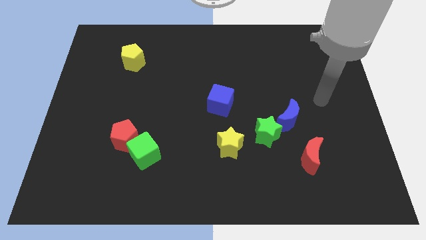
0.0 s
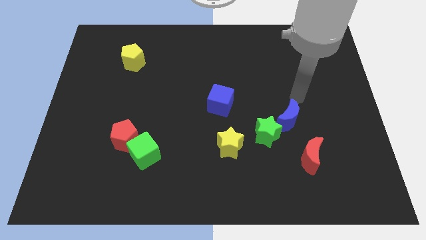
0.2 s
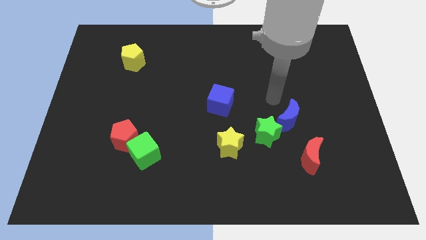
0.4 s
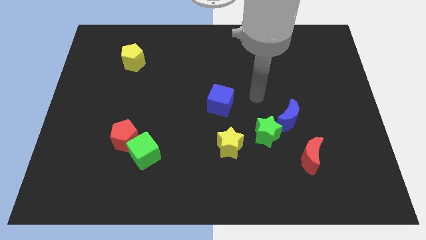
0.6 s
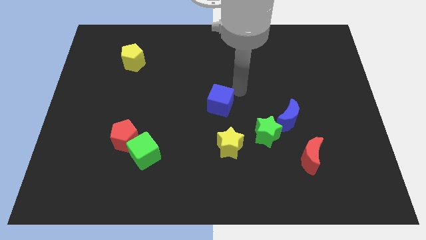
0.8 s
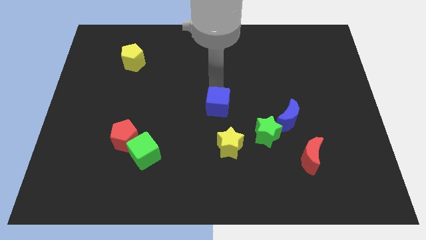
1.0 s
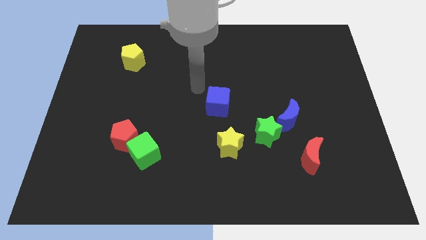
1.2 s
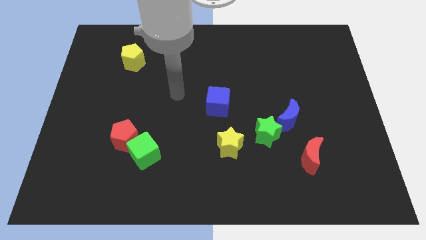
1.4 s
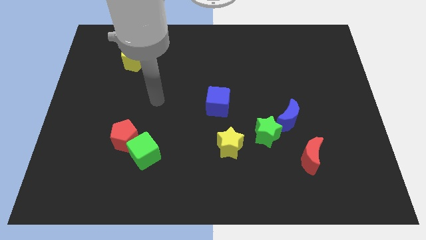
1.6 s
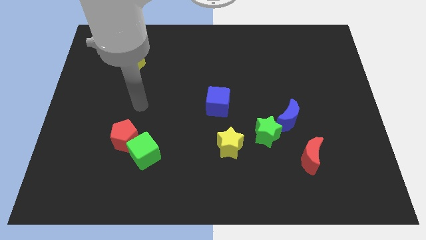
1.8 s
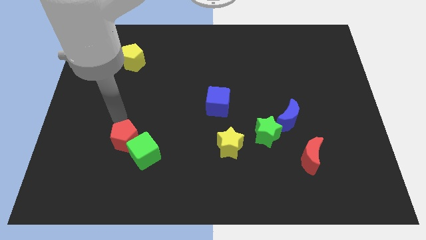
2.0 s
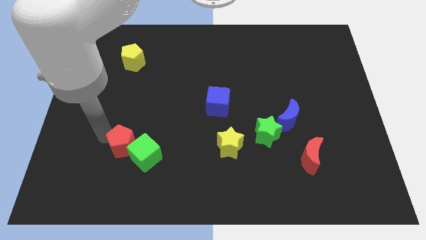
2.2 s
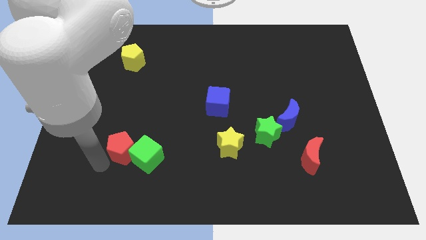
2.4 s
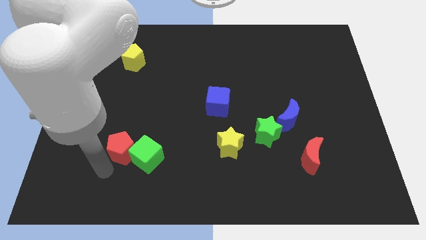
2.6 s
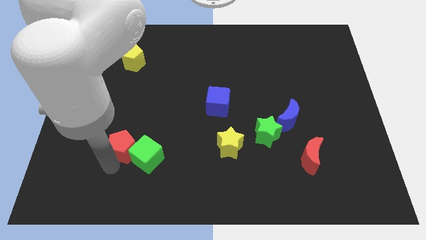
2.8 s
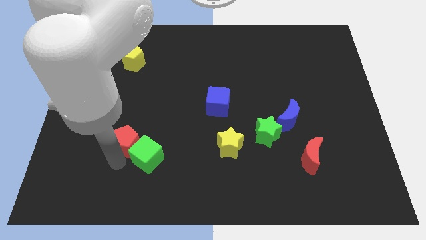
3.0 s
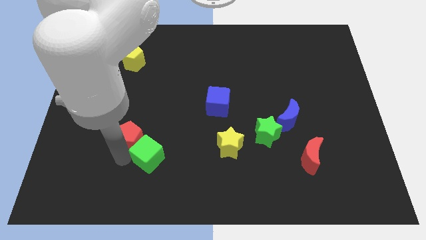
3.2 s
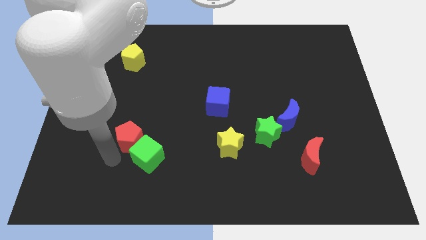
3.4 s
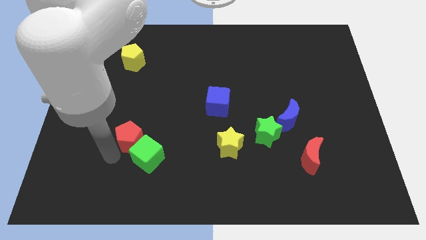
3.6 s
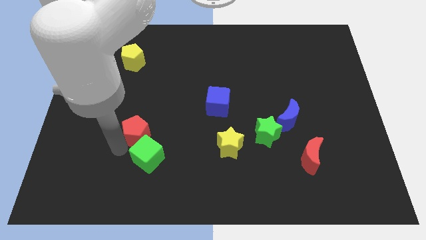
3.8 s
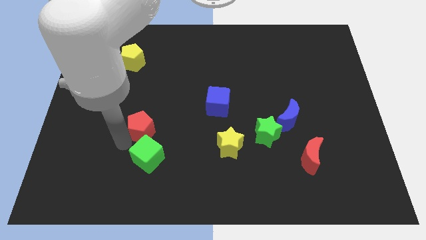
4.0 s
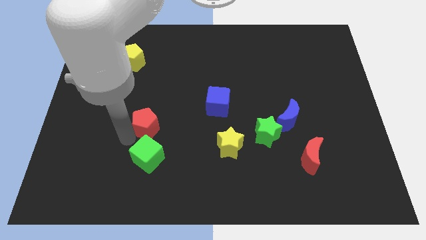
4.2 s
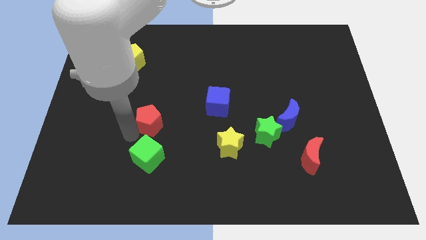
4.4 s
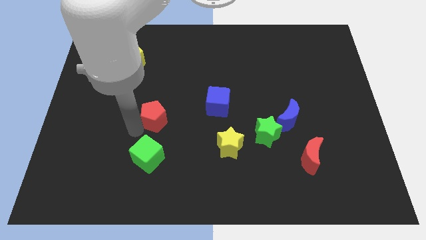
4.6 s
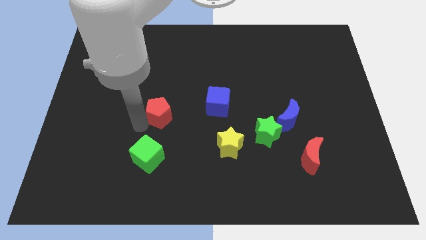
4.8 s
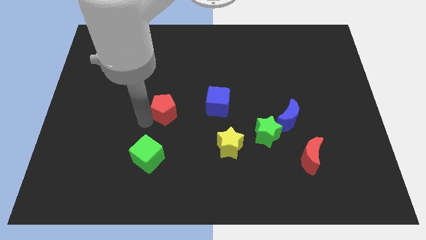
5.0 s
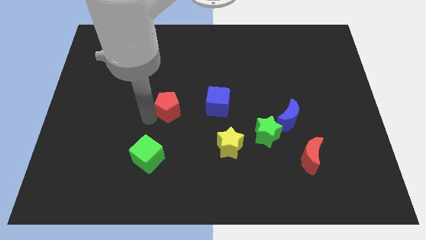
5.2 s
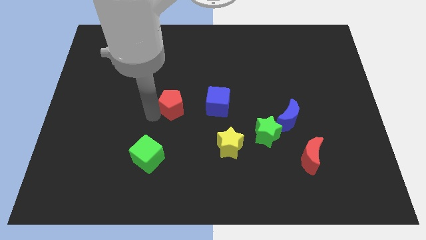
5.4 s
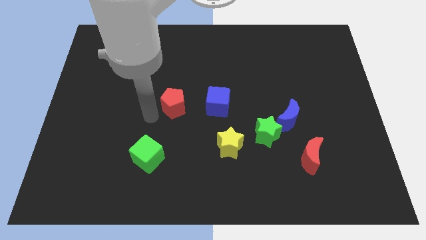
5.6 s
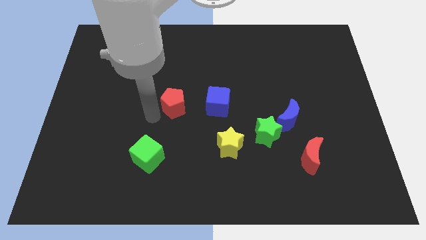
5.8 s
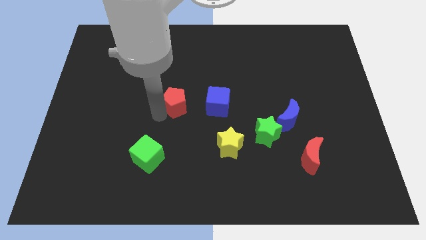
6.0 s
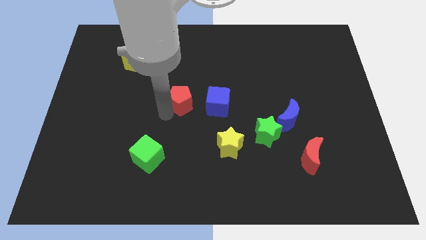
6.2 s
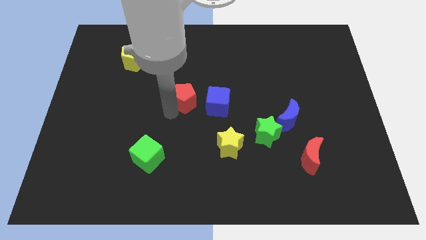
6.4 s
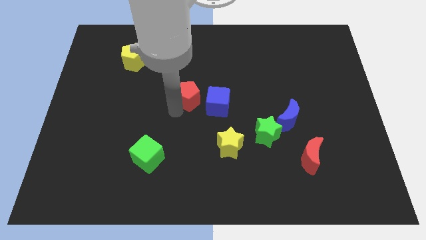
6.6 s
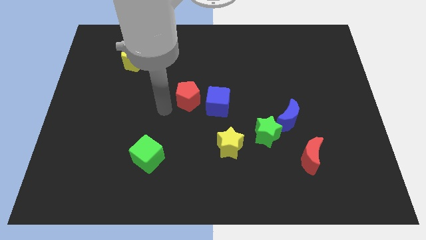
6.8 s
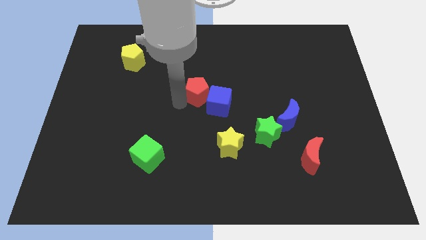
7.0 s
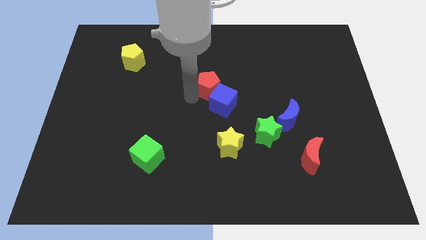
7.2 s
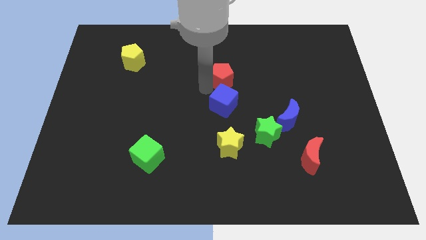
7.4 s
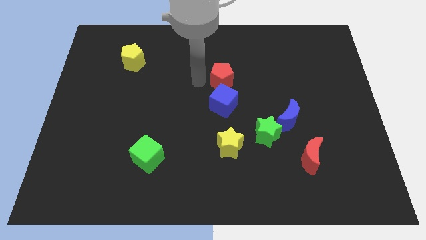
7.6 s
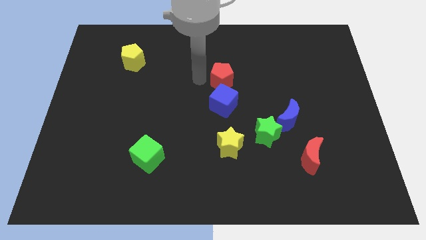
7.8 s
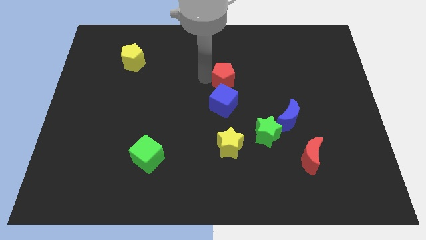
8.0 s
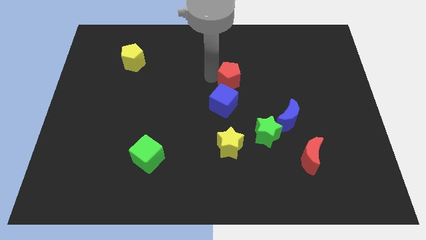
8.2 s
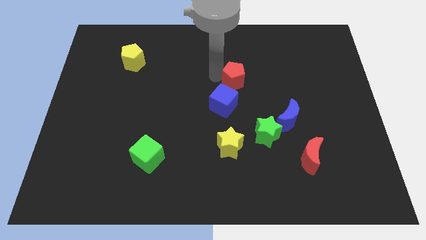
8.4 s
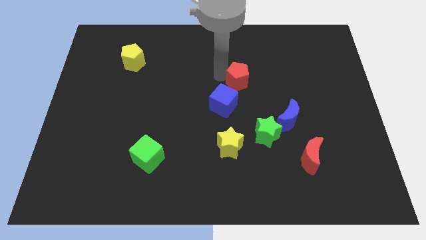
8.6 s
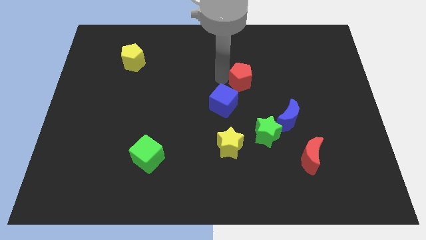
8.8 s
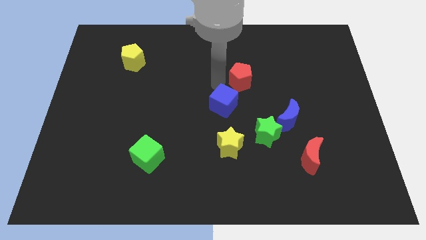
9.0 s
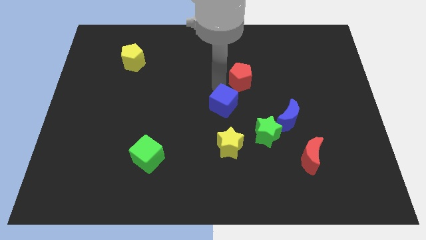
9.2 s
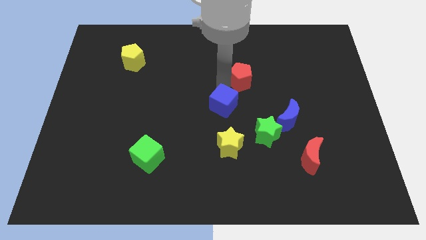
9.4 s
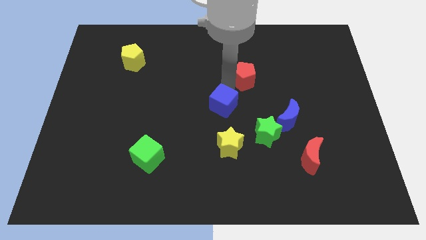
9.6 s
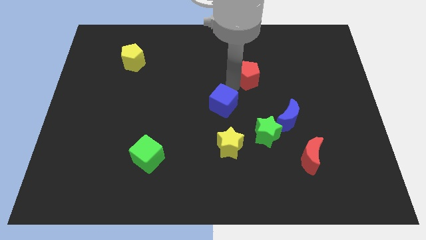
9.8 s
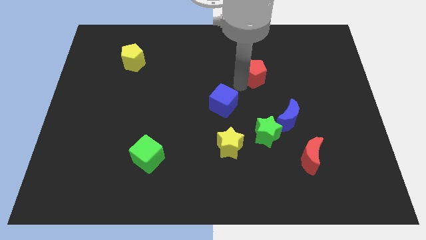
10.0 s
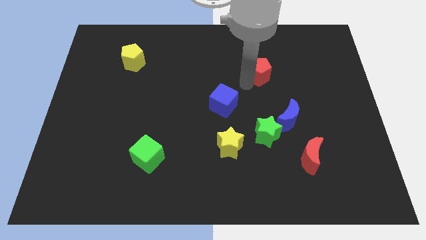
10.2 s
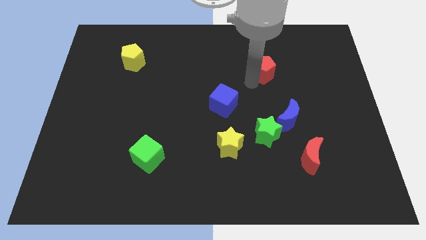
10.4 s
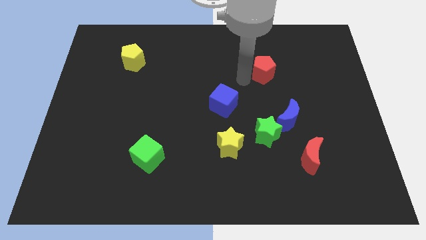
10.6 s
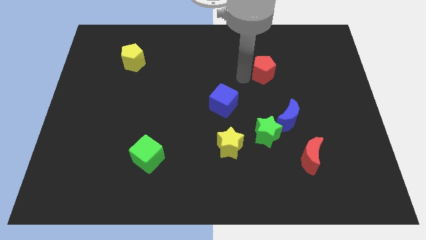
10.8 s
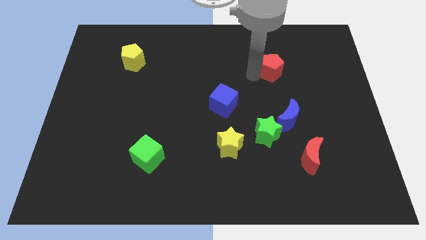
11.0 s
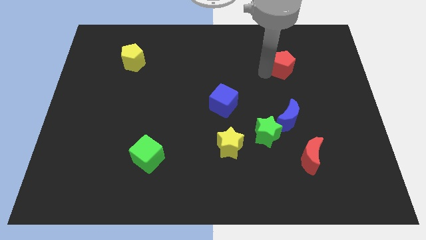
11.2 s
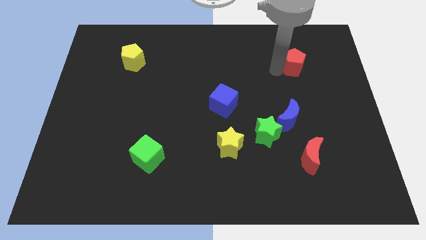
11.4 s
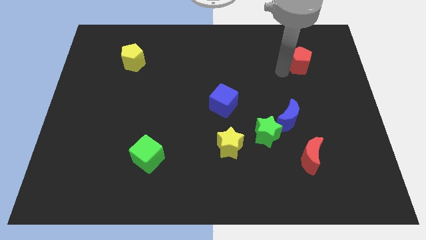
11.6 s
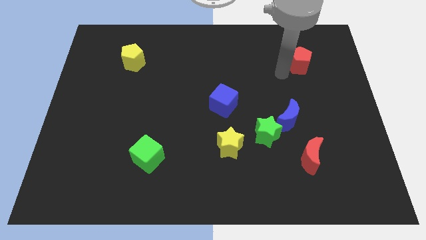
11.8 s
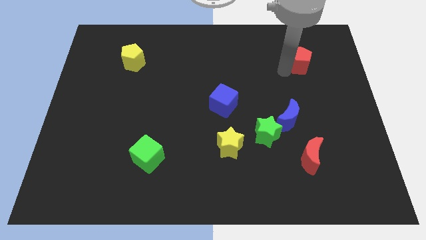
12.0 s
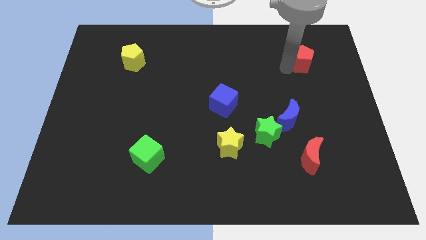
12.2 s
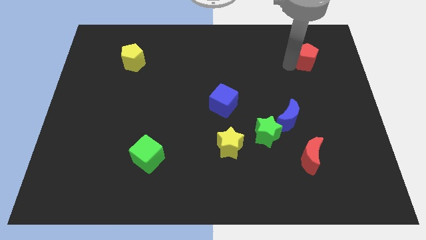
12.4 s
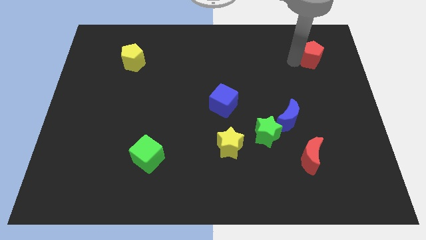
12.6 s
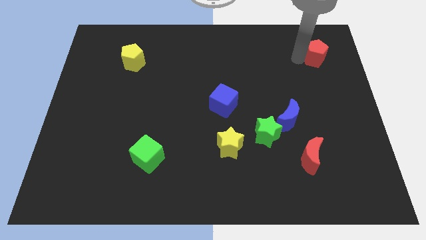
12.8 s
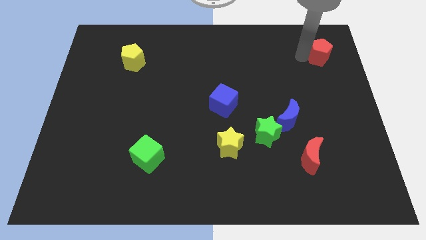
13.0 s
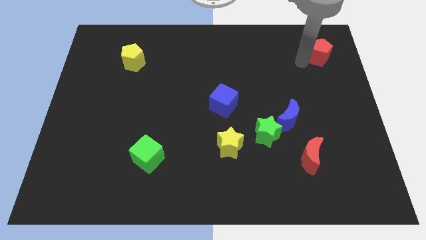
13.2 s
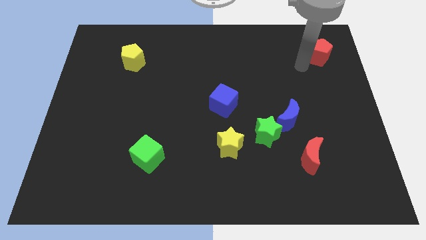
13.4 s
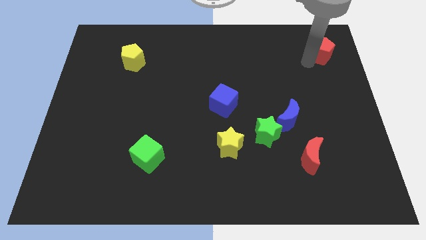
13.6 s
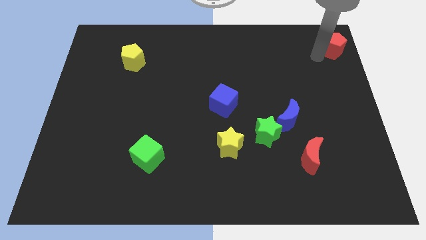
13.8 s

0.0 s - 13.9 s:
put the red pentagon to the top right of the board

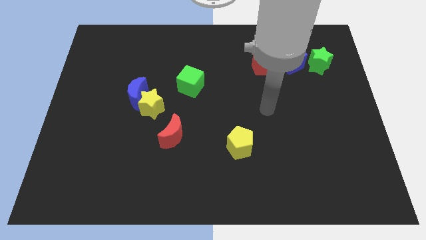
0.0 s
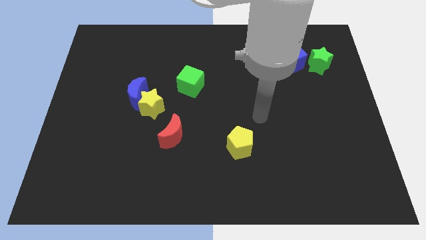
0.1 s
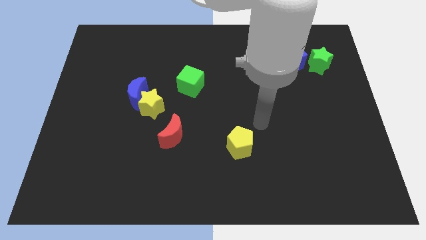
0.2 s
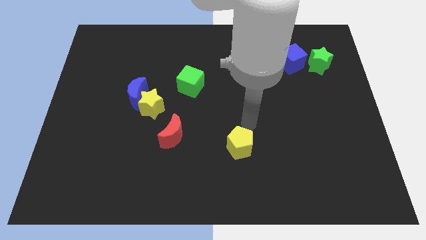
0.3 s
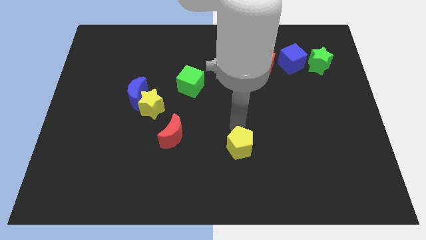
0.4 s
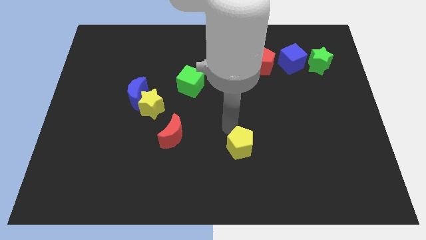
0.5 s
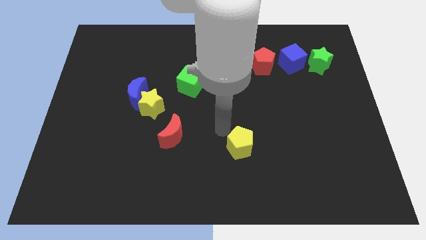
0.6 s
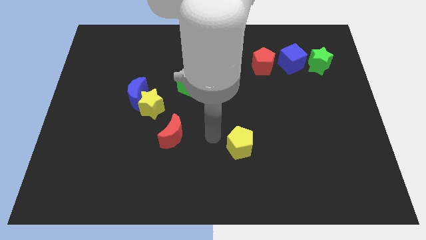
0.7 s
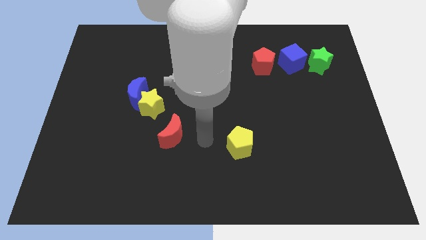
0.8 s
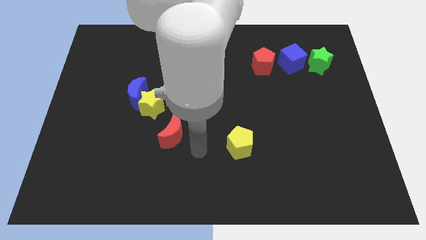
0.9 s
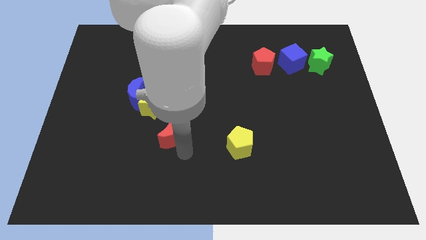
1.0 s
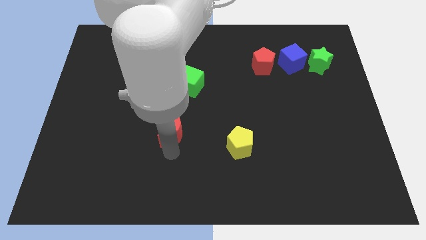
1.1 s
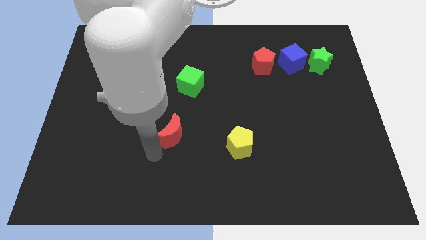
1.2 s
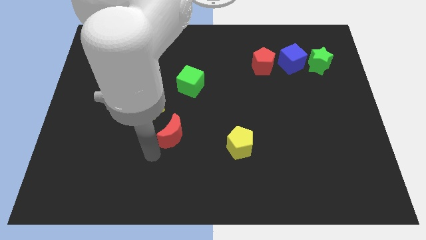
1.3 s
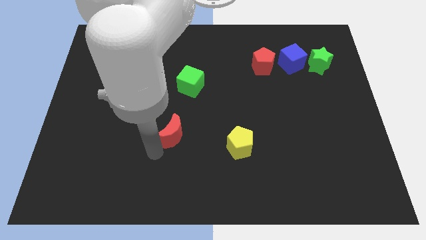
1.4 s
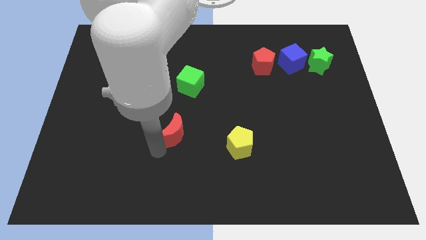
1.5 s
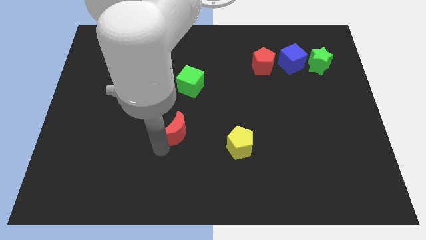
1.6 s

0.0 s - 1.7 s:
push the red moon to the middle
